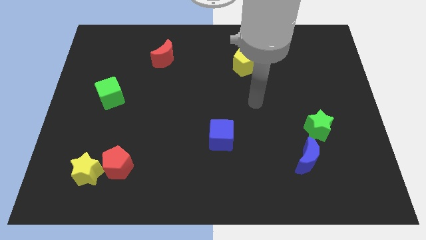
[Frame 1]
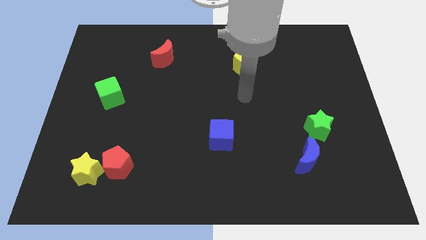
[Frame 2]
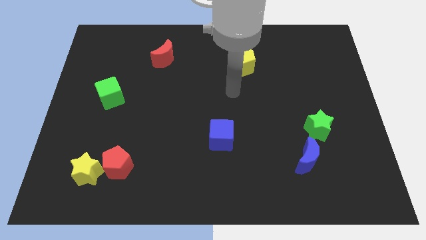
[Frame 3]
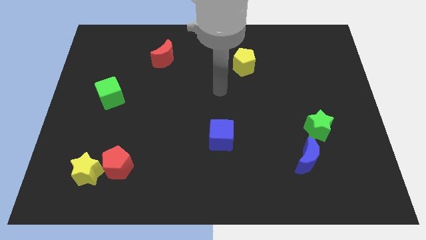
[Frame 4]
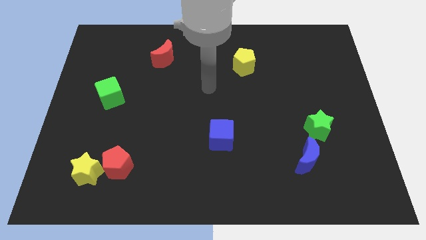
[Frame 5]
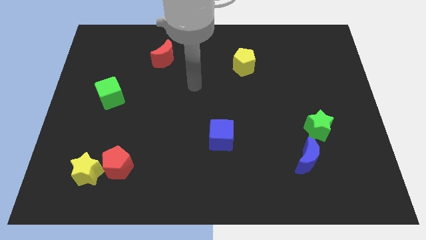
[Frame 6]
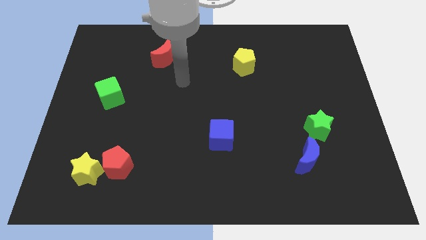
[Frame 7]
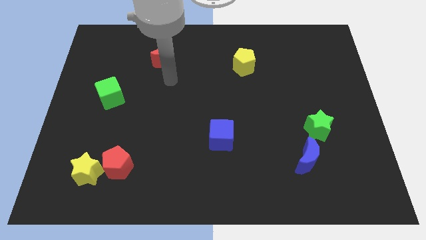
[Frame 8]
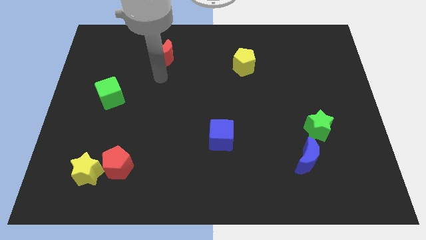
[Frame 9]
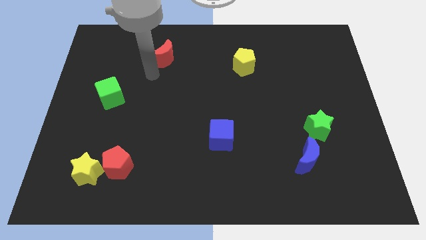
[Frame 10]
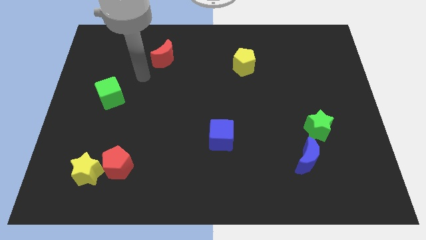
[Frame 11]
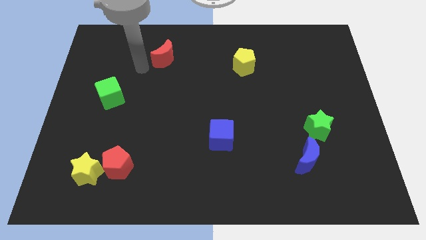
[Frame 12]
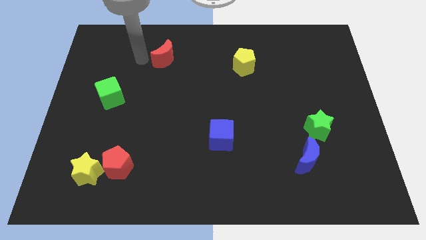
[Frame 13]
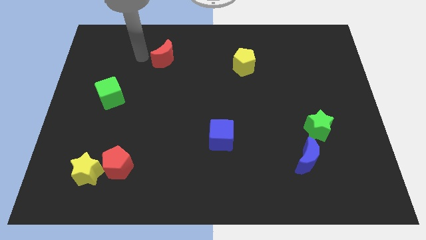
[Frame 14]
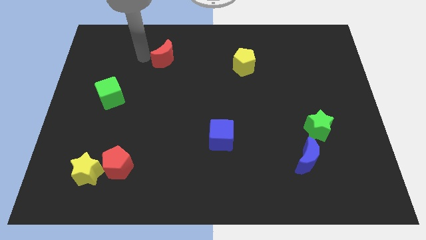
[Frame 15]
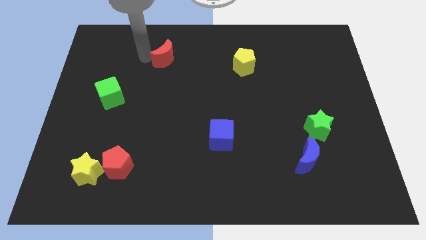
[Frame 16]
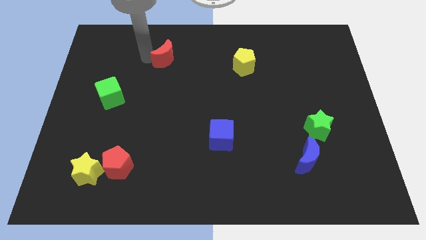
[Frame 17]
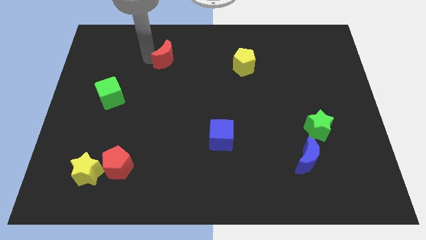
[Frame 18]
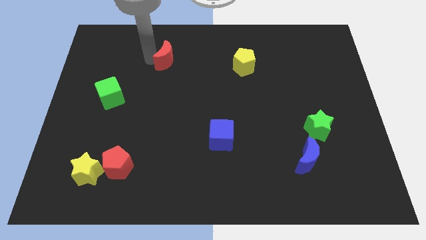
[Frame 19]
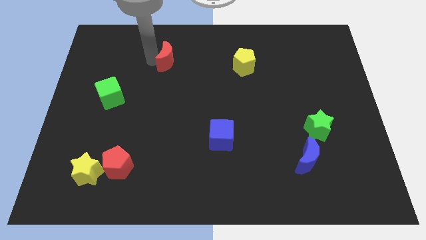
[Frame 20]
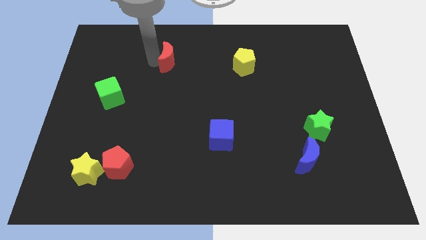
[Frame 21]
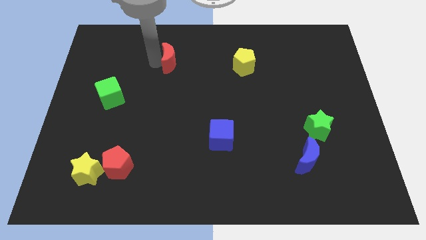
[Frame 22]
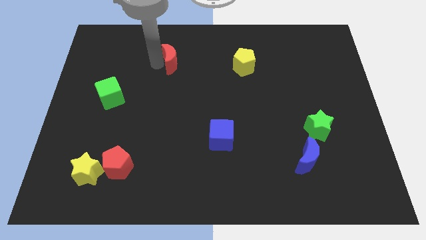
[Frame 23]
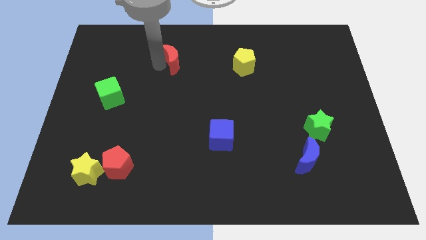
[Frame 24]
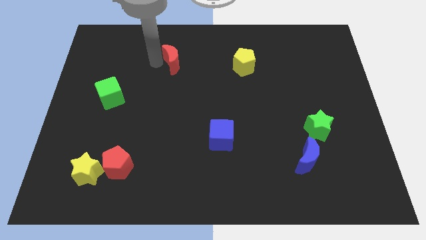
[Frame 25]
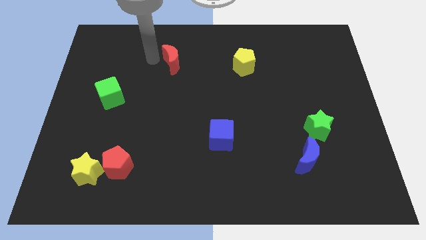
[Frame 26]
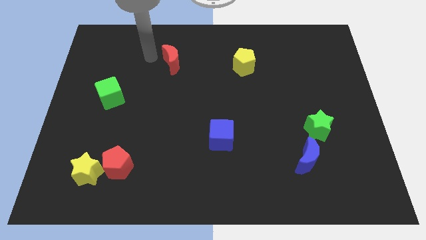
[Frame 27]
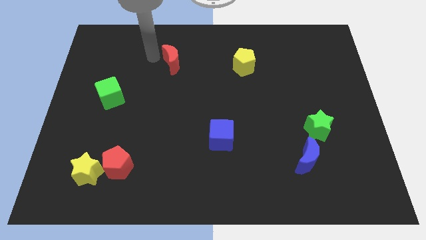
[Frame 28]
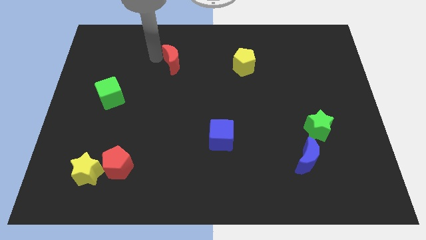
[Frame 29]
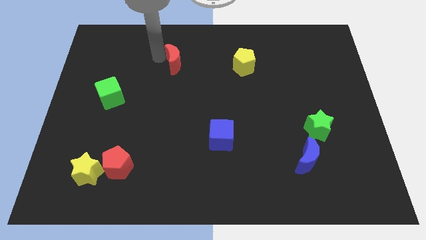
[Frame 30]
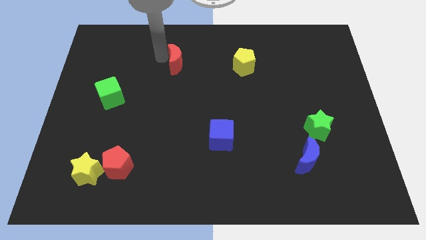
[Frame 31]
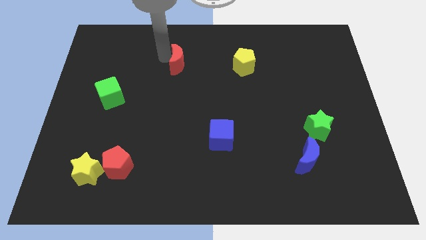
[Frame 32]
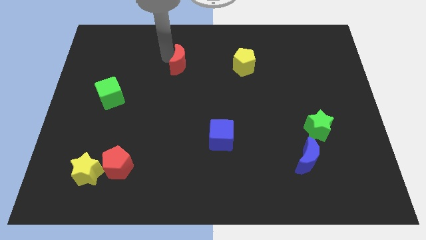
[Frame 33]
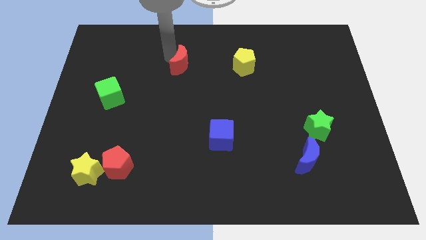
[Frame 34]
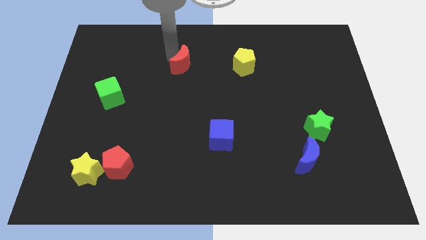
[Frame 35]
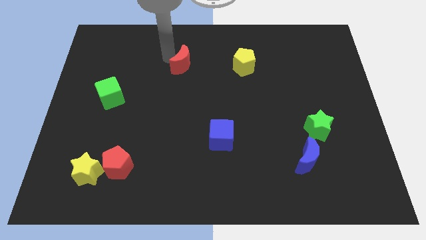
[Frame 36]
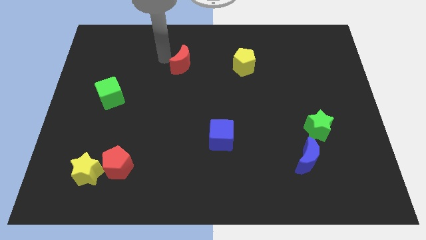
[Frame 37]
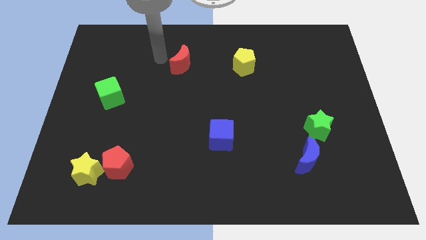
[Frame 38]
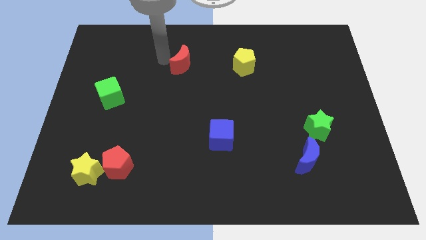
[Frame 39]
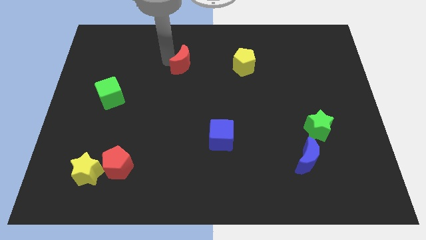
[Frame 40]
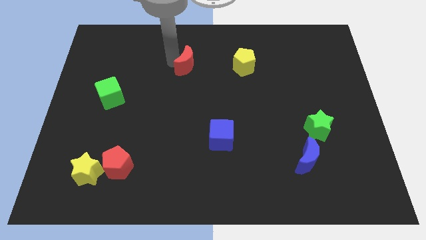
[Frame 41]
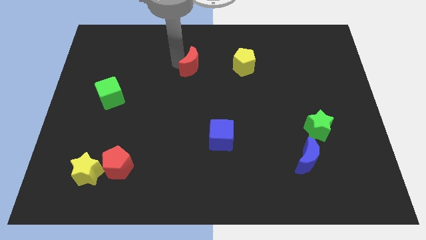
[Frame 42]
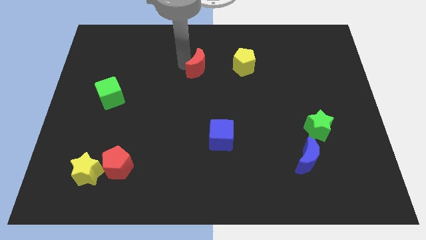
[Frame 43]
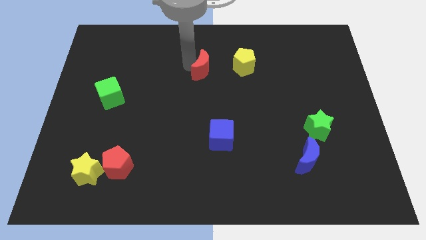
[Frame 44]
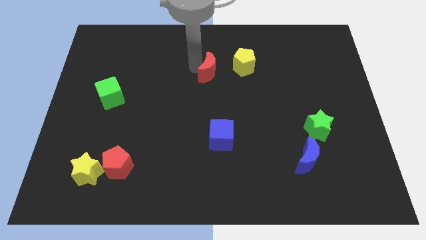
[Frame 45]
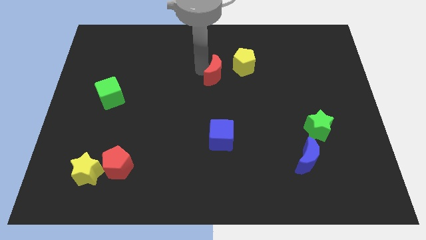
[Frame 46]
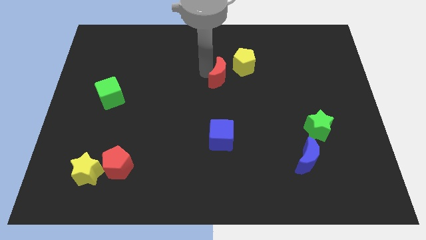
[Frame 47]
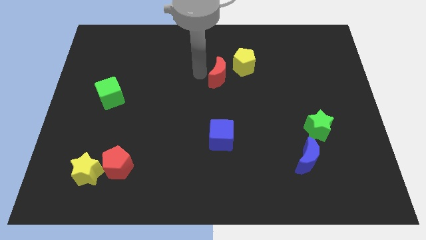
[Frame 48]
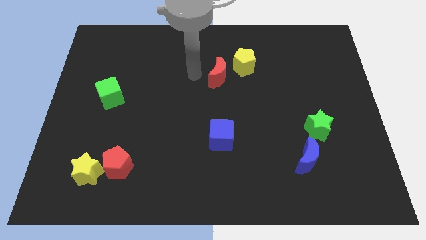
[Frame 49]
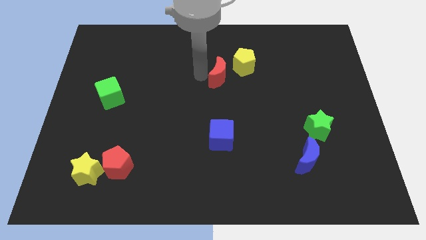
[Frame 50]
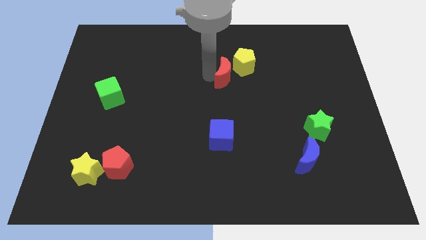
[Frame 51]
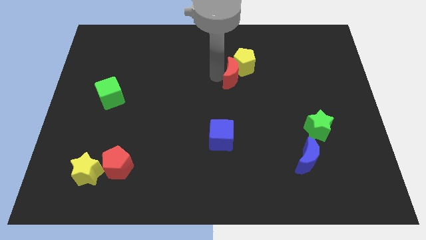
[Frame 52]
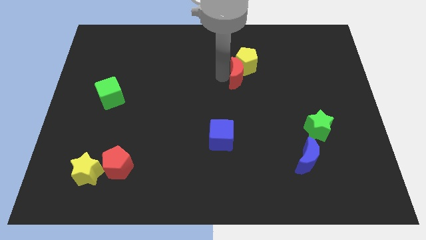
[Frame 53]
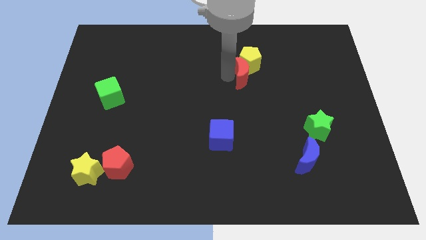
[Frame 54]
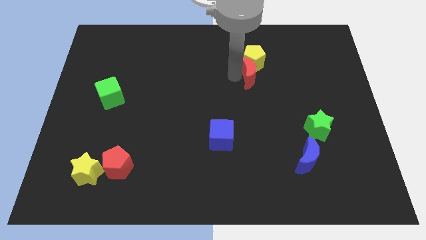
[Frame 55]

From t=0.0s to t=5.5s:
put the red moon to the bottom right side of the yellow pentagon

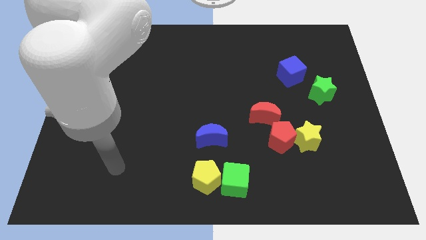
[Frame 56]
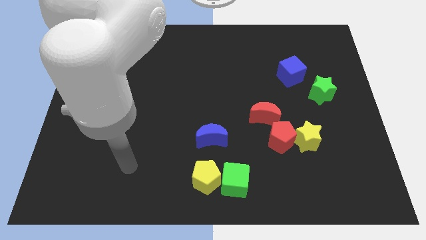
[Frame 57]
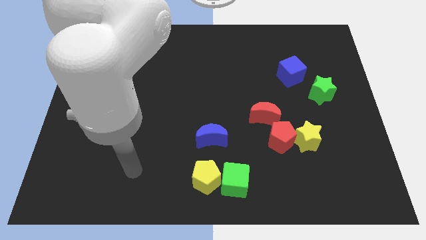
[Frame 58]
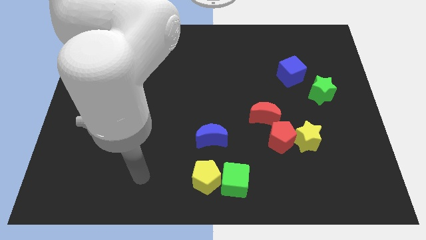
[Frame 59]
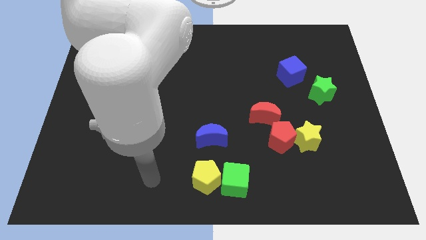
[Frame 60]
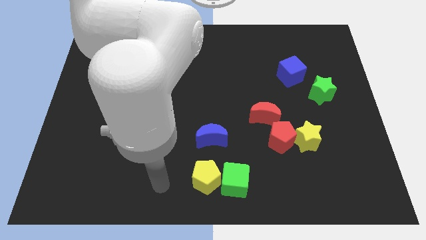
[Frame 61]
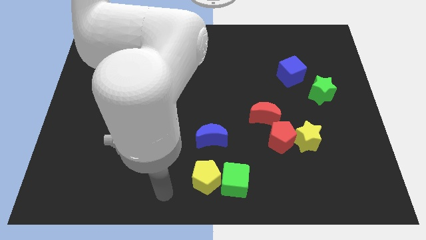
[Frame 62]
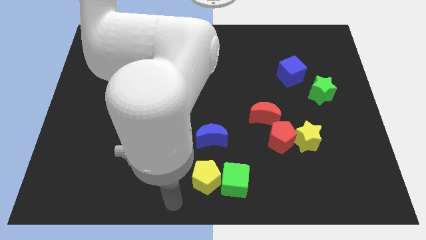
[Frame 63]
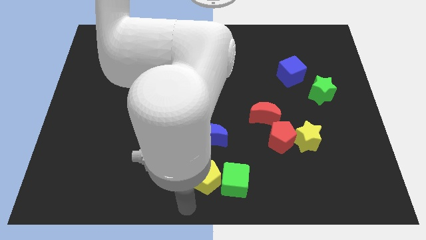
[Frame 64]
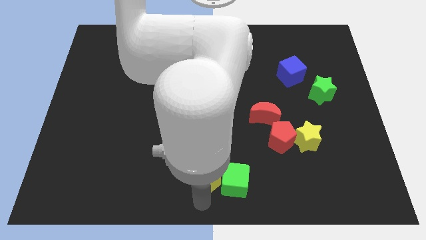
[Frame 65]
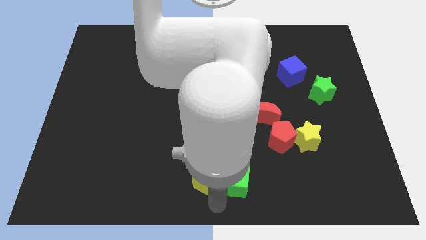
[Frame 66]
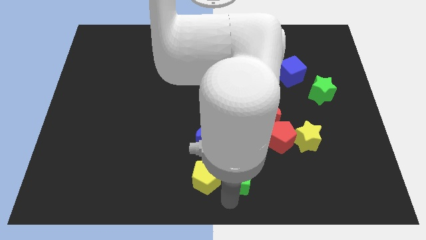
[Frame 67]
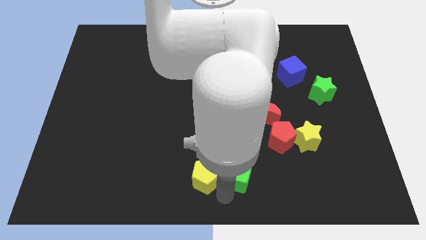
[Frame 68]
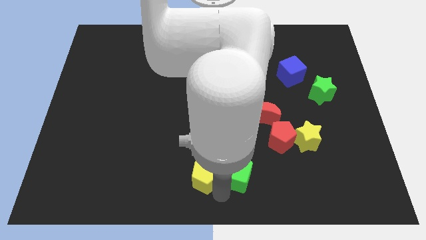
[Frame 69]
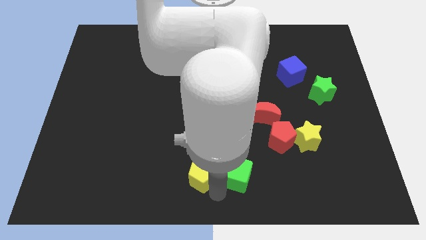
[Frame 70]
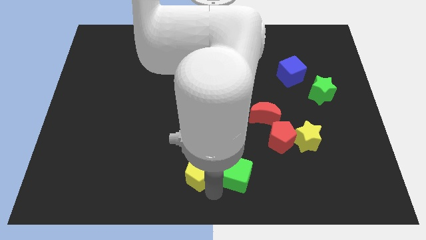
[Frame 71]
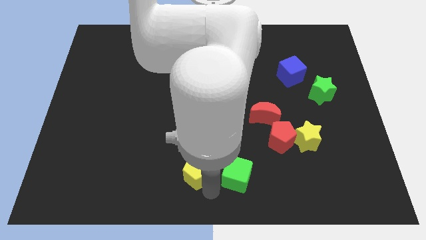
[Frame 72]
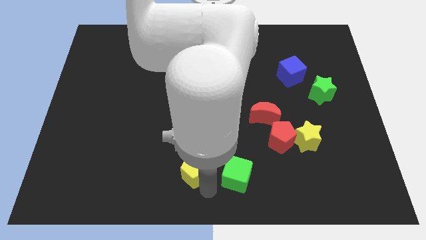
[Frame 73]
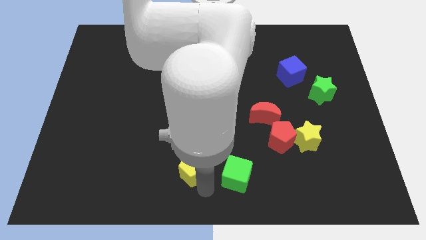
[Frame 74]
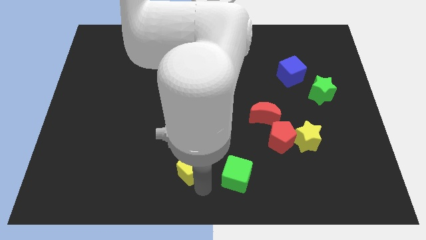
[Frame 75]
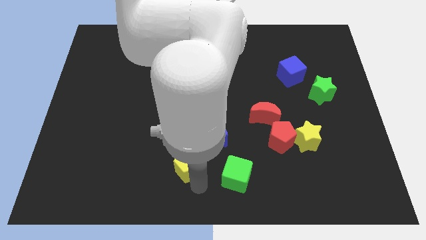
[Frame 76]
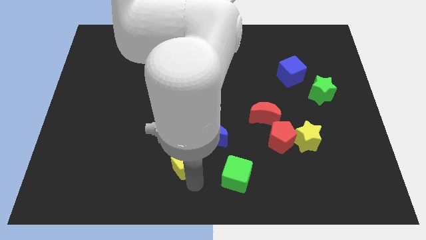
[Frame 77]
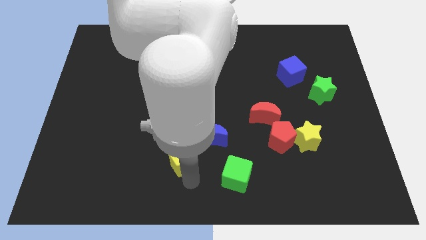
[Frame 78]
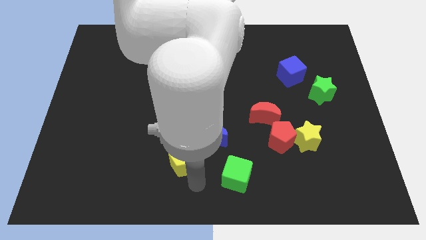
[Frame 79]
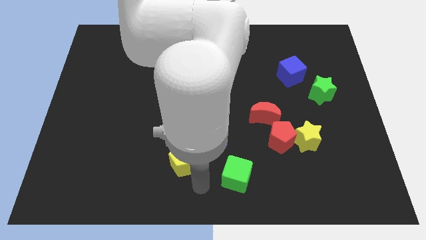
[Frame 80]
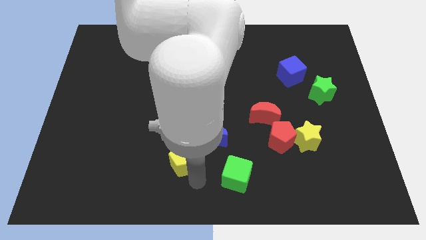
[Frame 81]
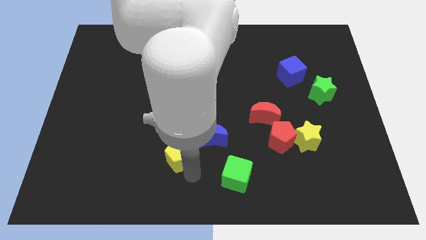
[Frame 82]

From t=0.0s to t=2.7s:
push the yellow pentagon left of the blue moon
